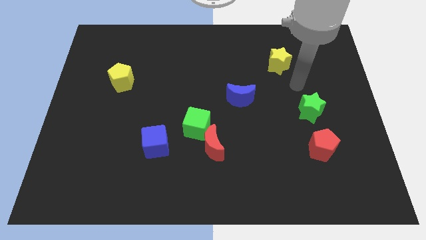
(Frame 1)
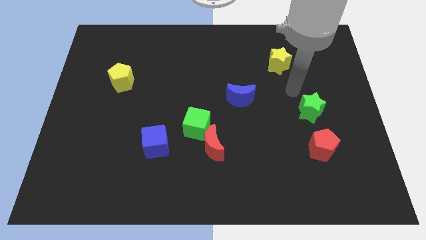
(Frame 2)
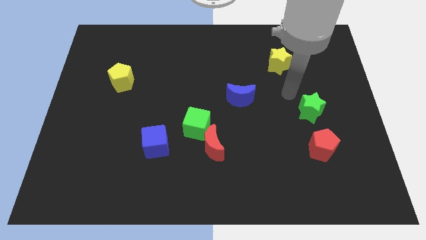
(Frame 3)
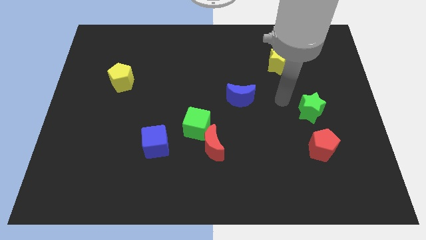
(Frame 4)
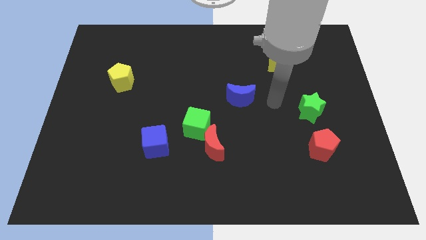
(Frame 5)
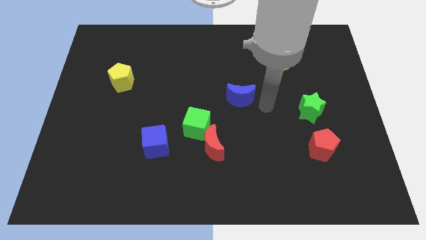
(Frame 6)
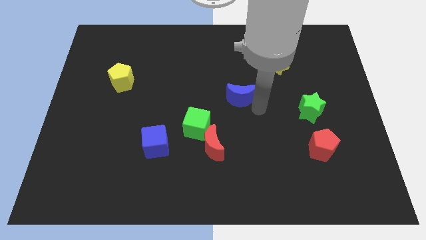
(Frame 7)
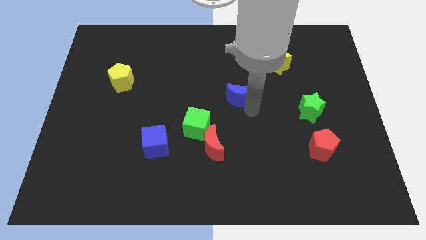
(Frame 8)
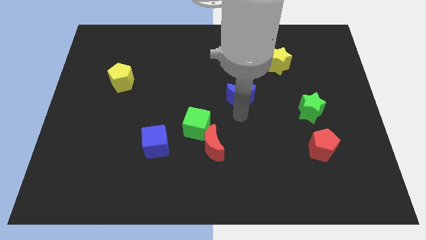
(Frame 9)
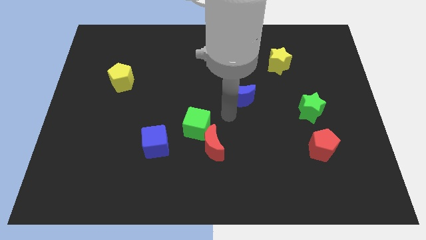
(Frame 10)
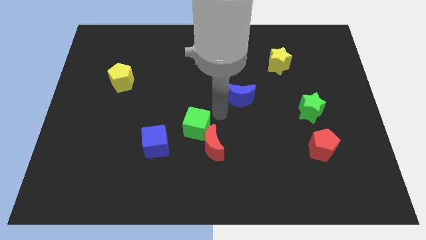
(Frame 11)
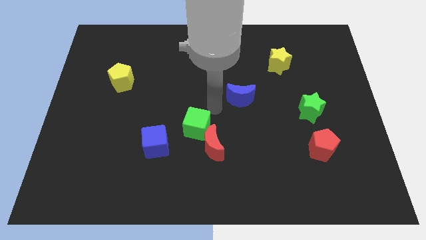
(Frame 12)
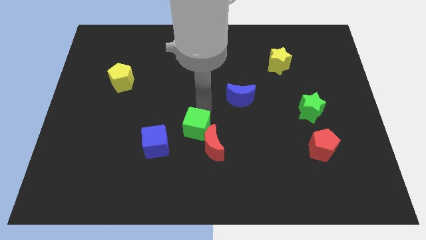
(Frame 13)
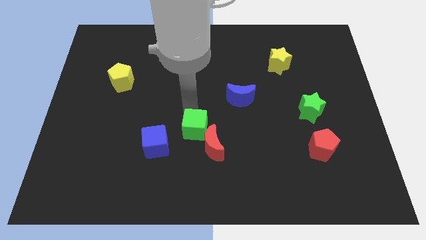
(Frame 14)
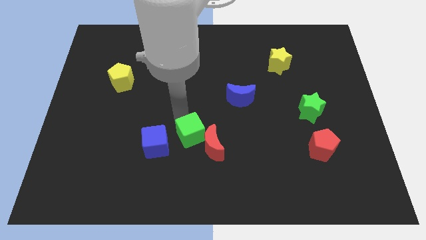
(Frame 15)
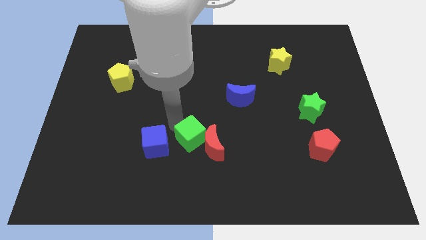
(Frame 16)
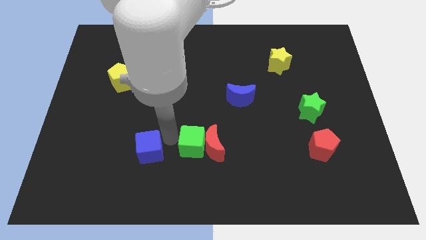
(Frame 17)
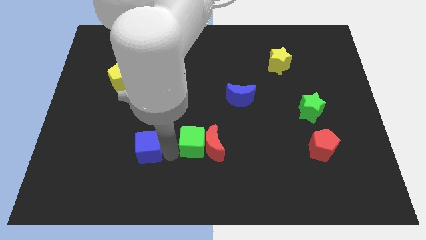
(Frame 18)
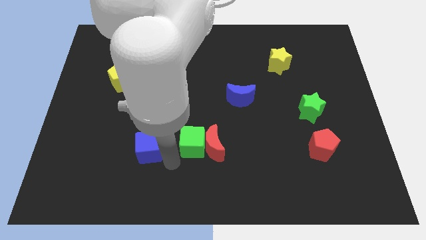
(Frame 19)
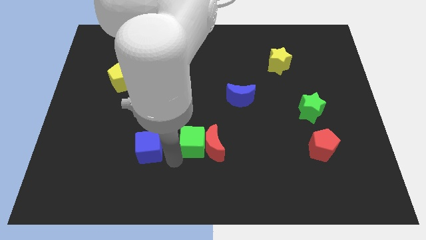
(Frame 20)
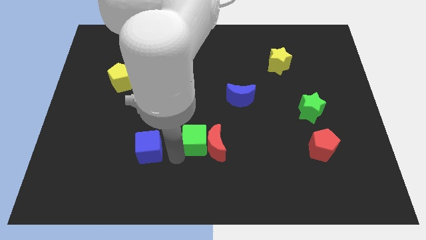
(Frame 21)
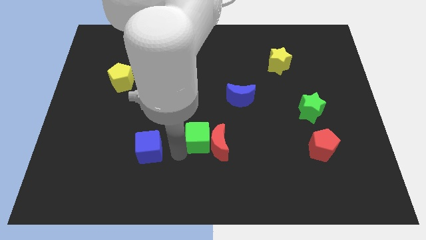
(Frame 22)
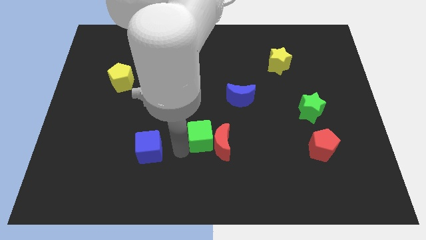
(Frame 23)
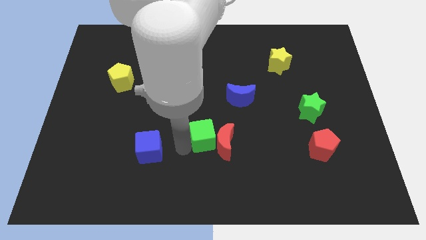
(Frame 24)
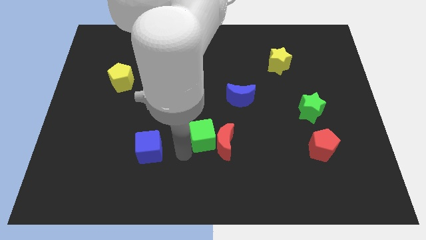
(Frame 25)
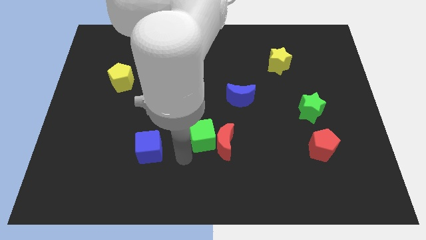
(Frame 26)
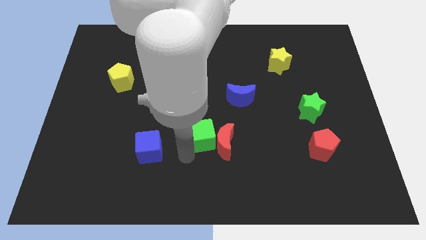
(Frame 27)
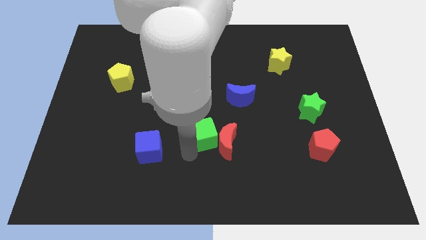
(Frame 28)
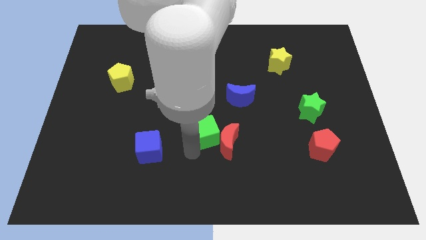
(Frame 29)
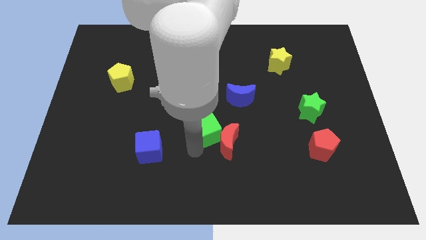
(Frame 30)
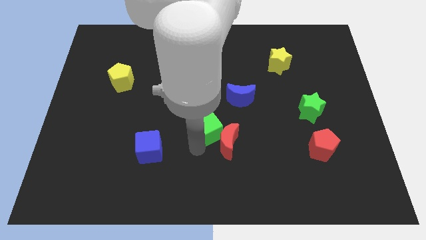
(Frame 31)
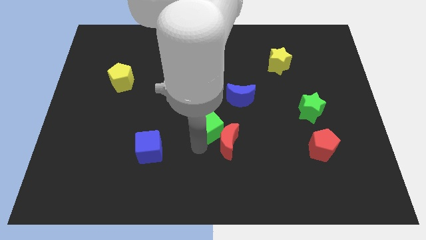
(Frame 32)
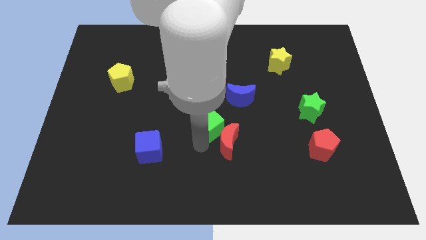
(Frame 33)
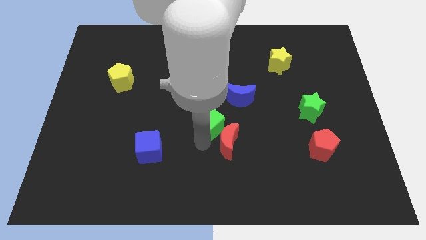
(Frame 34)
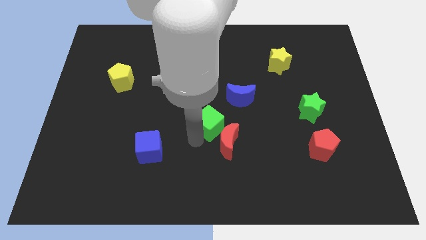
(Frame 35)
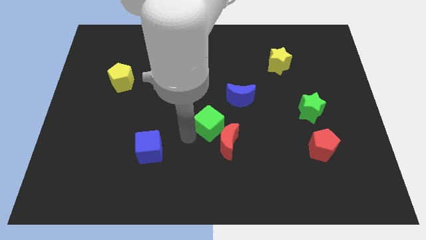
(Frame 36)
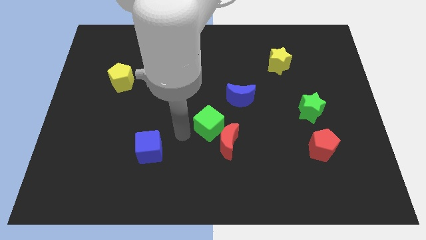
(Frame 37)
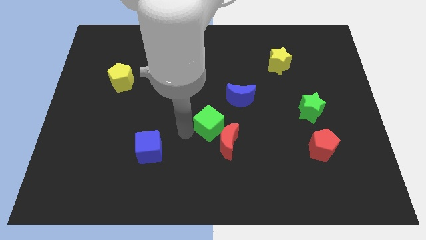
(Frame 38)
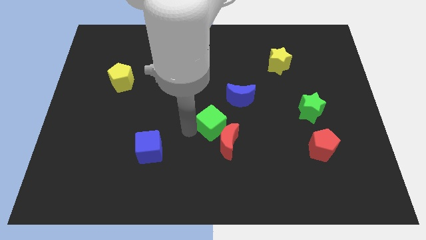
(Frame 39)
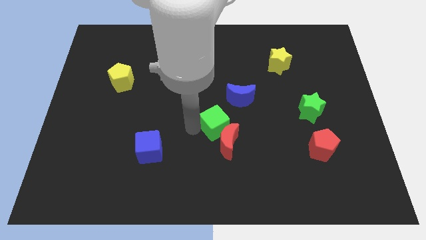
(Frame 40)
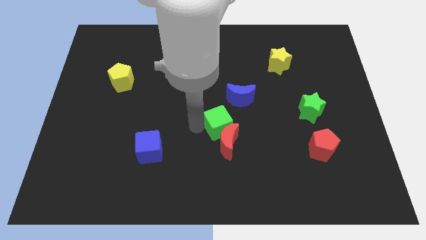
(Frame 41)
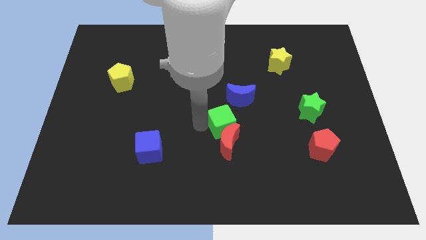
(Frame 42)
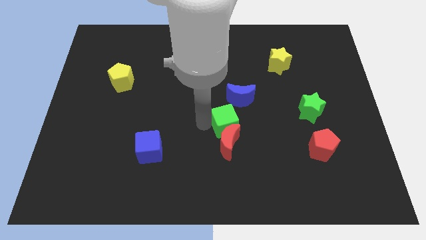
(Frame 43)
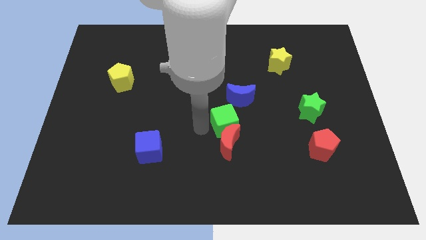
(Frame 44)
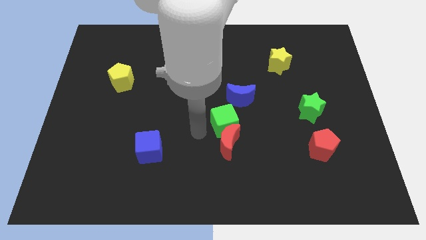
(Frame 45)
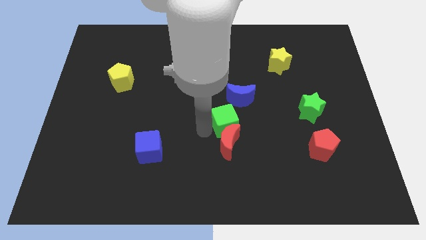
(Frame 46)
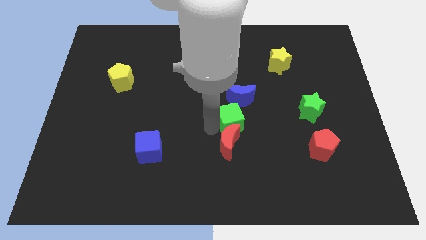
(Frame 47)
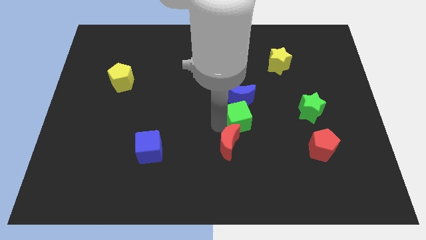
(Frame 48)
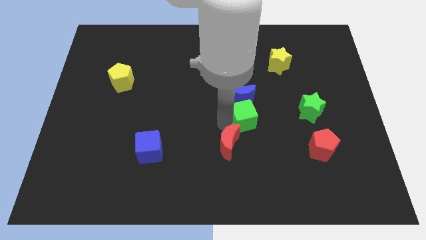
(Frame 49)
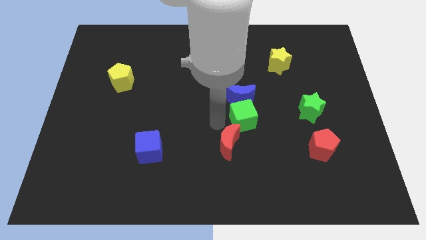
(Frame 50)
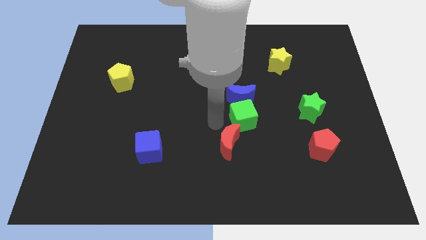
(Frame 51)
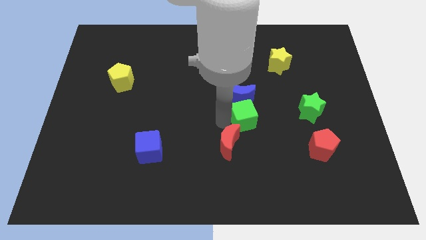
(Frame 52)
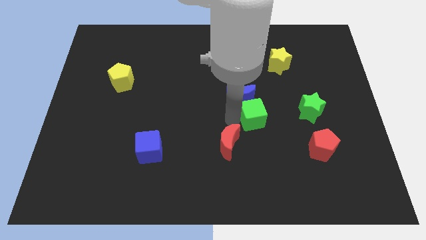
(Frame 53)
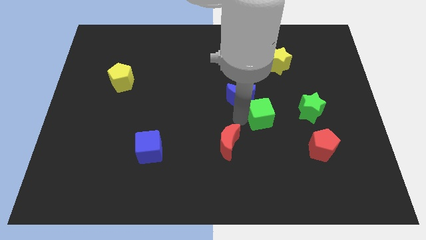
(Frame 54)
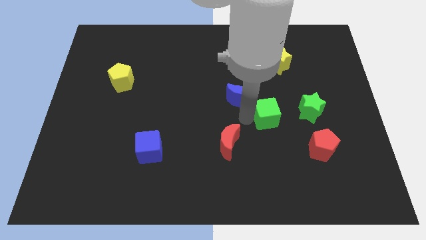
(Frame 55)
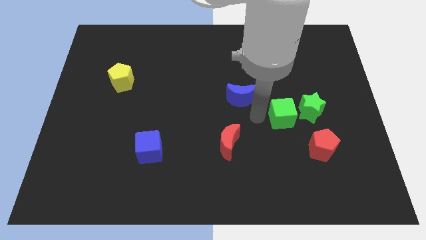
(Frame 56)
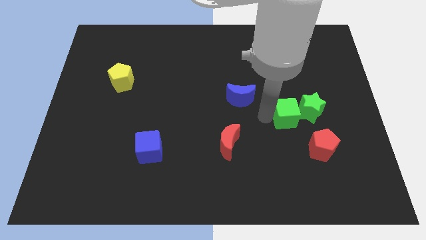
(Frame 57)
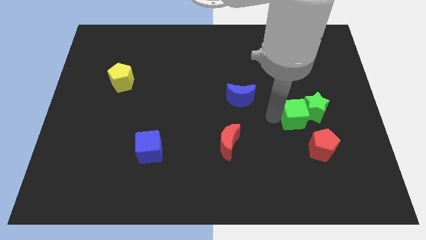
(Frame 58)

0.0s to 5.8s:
slide the green cube close to the green star

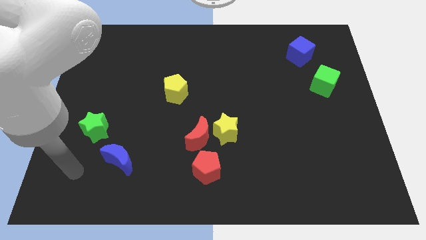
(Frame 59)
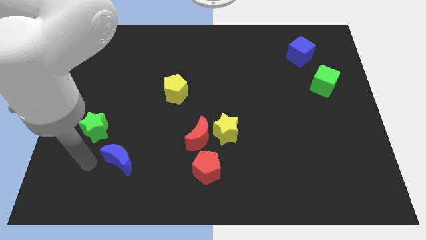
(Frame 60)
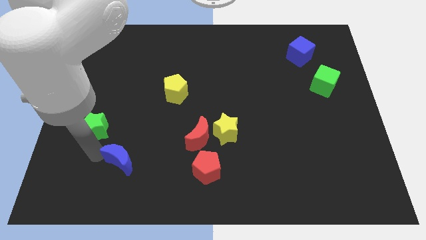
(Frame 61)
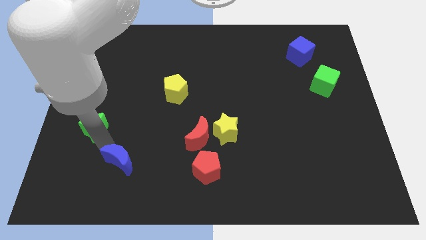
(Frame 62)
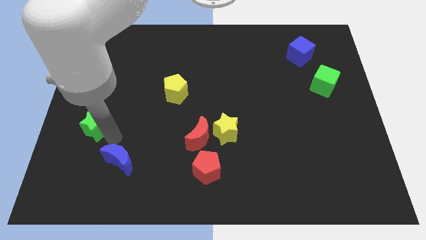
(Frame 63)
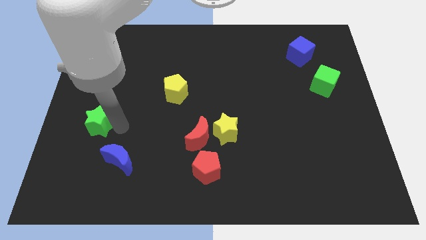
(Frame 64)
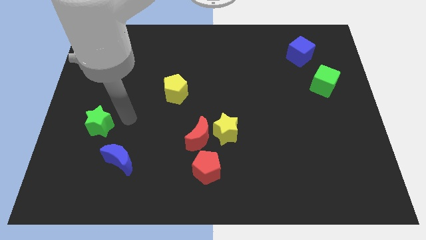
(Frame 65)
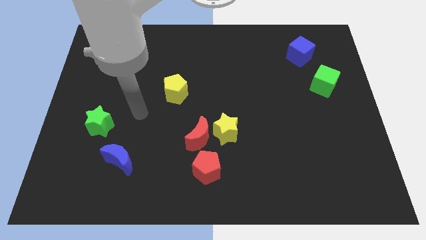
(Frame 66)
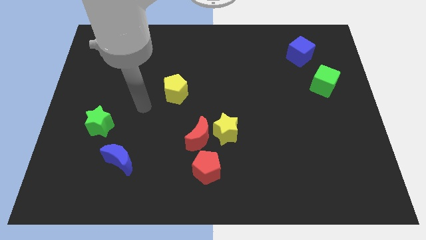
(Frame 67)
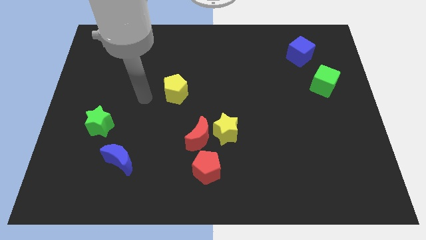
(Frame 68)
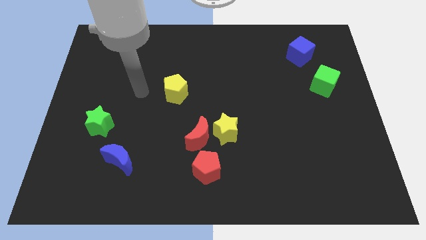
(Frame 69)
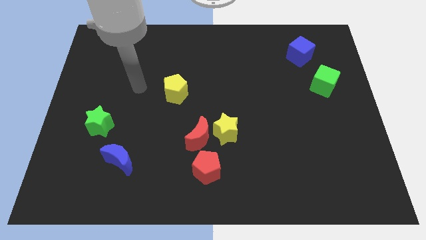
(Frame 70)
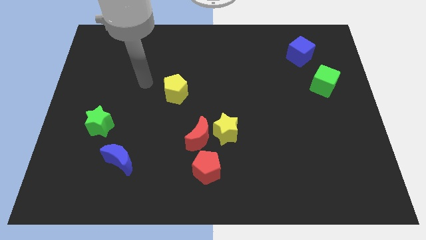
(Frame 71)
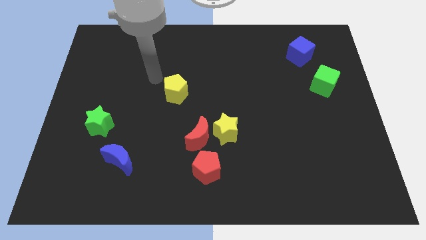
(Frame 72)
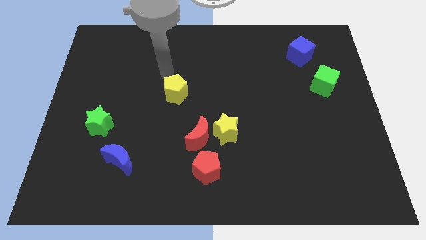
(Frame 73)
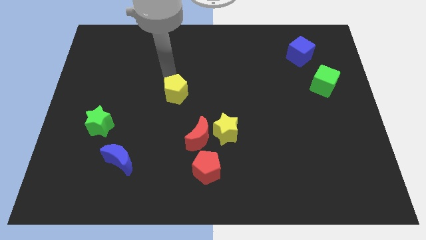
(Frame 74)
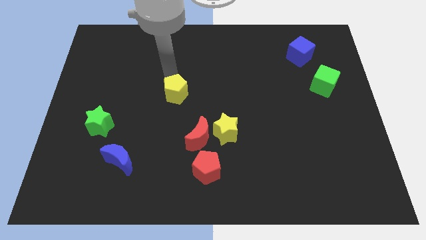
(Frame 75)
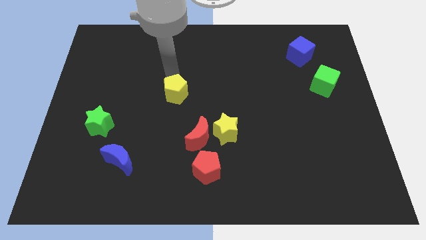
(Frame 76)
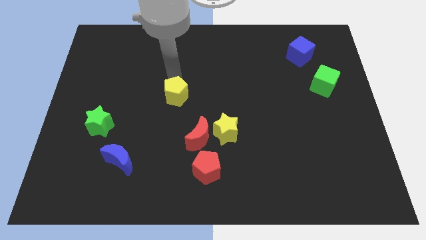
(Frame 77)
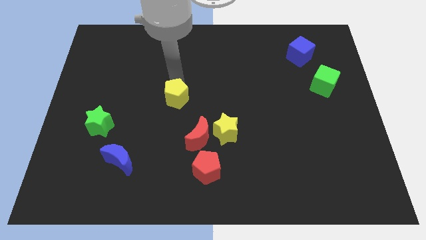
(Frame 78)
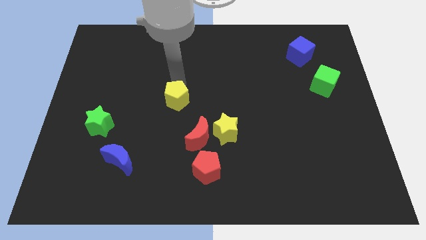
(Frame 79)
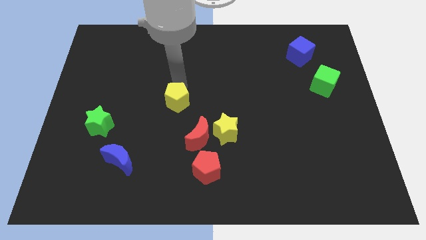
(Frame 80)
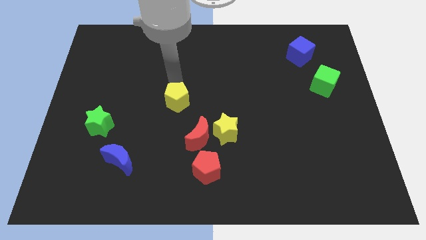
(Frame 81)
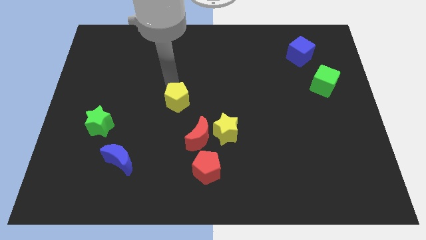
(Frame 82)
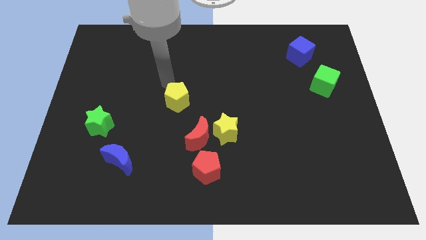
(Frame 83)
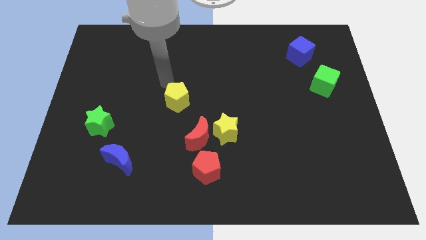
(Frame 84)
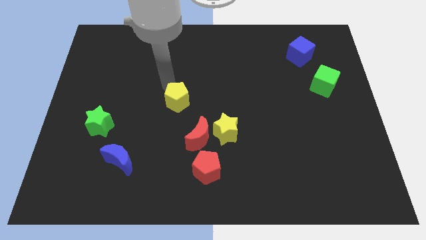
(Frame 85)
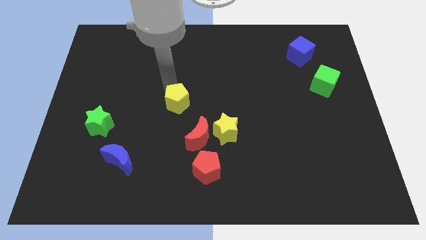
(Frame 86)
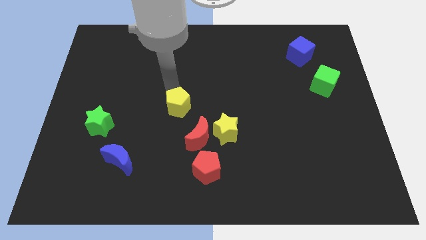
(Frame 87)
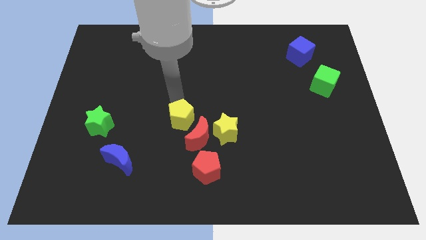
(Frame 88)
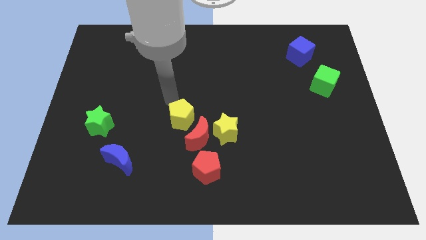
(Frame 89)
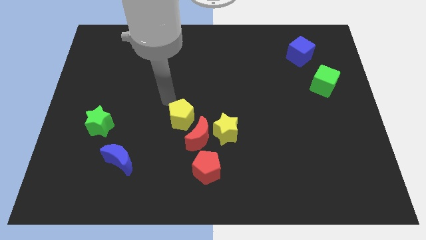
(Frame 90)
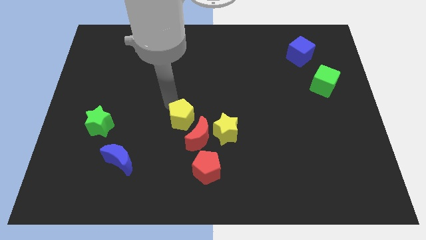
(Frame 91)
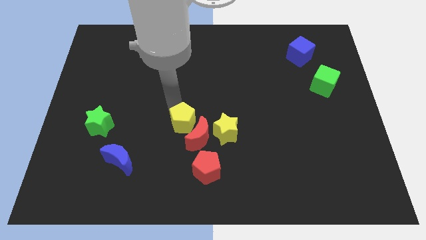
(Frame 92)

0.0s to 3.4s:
slide the yellow pentagon towards the red moon
